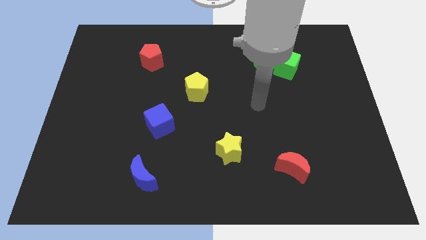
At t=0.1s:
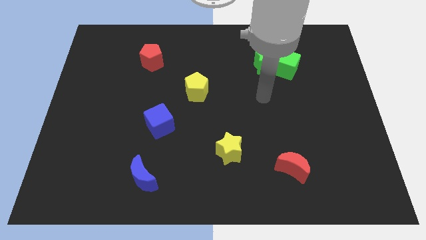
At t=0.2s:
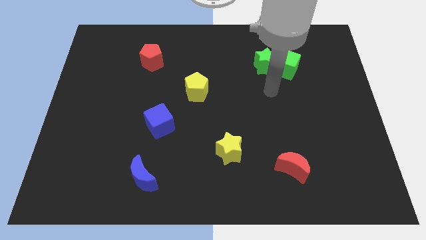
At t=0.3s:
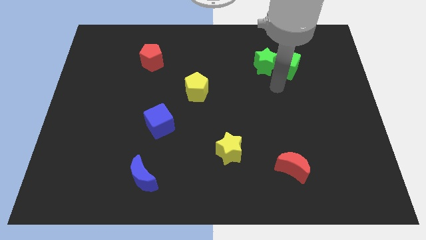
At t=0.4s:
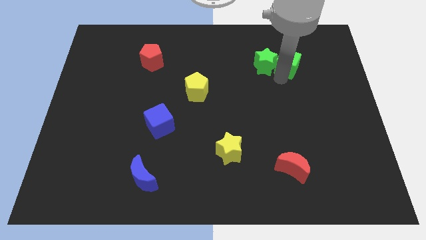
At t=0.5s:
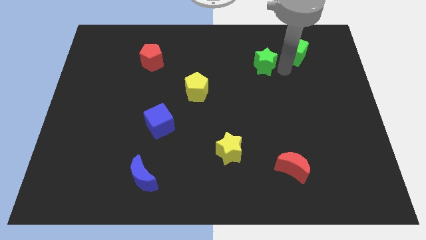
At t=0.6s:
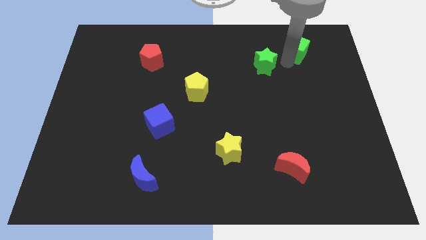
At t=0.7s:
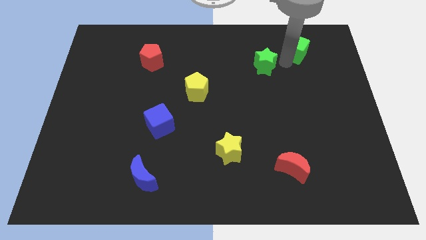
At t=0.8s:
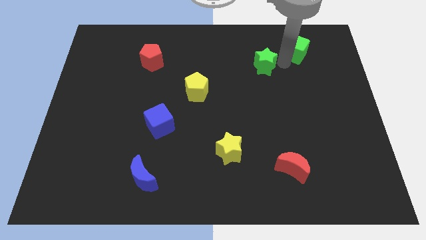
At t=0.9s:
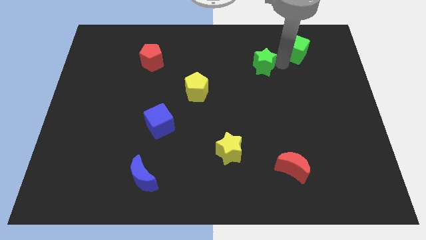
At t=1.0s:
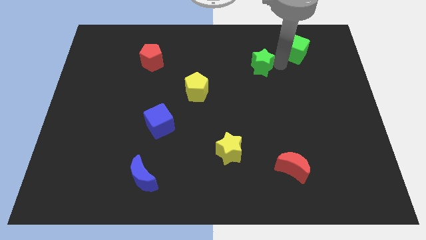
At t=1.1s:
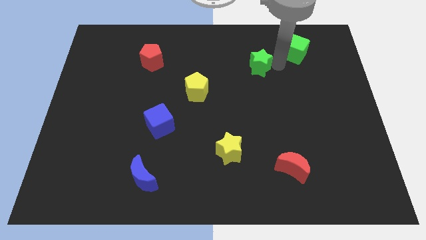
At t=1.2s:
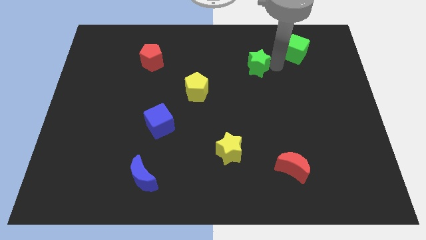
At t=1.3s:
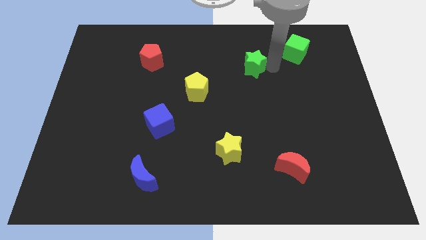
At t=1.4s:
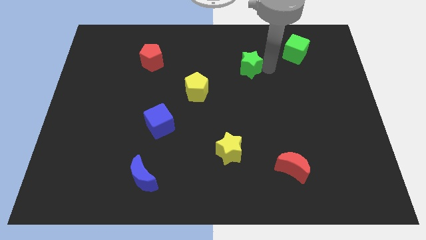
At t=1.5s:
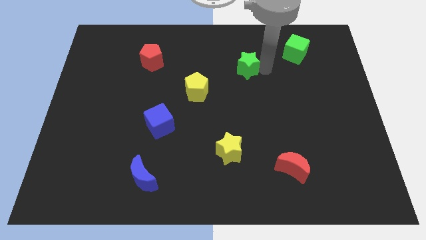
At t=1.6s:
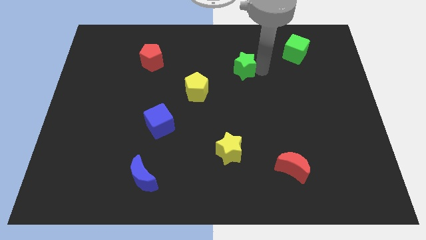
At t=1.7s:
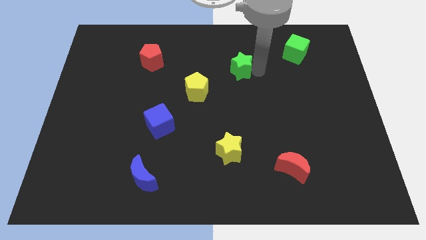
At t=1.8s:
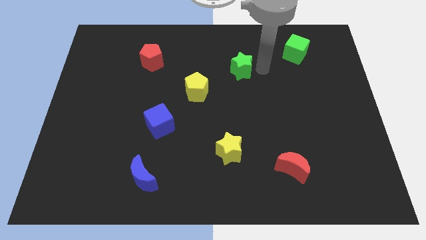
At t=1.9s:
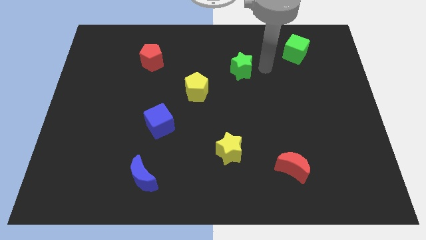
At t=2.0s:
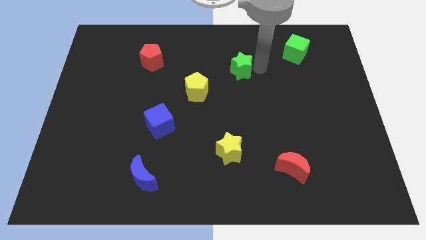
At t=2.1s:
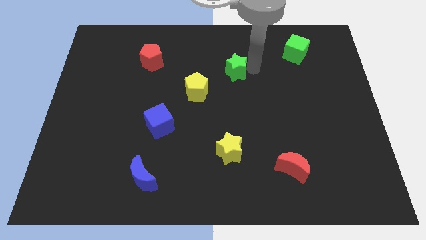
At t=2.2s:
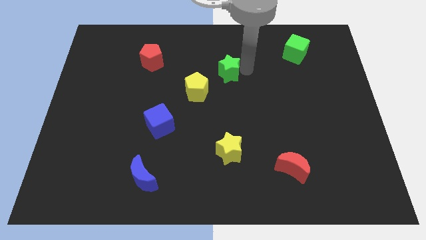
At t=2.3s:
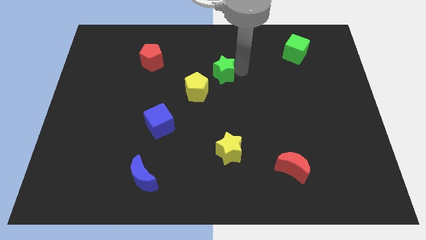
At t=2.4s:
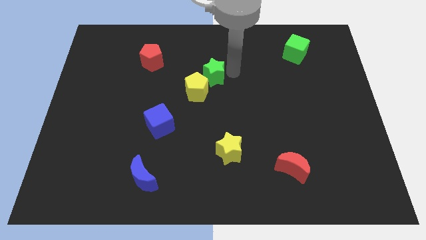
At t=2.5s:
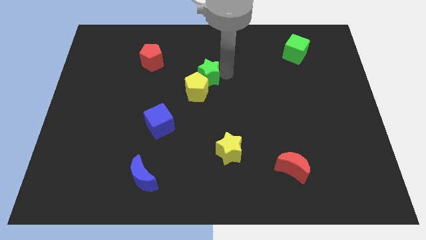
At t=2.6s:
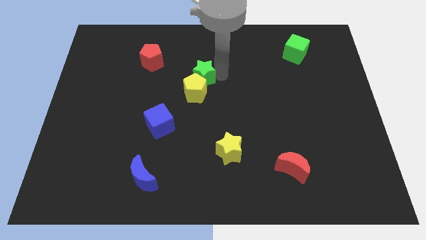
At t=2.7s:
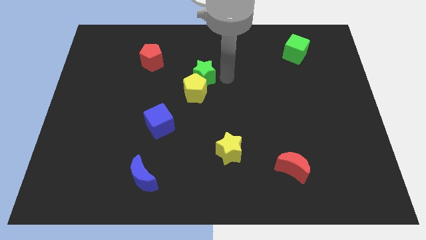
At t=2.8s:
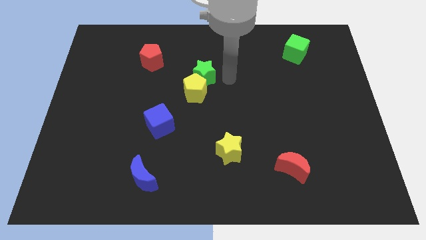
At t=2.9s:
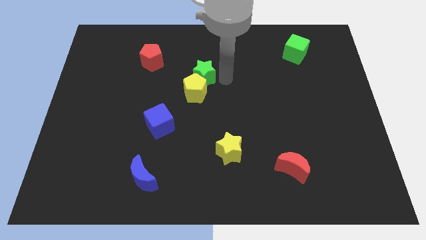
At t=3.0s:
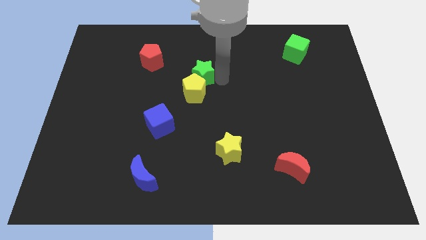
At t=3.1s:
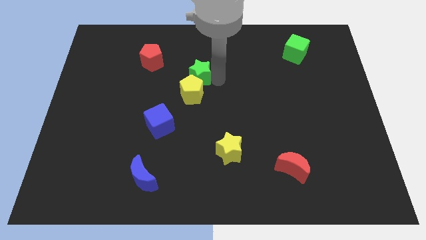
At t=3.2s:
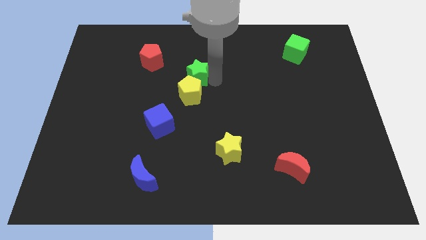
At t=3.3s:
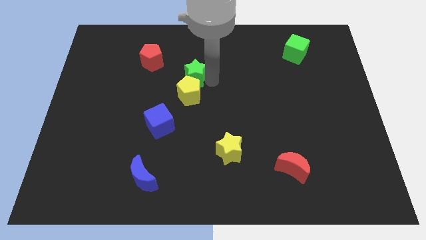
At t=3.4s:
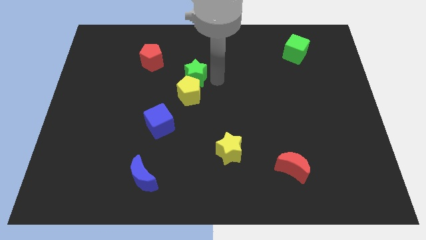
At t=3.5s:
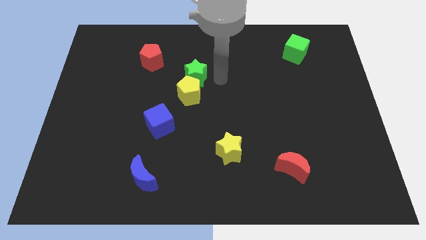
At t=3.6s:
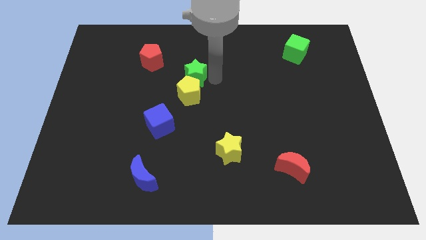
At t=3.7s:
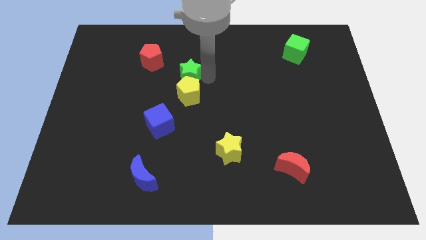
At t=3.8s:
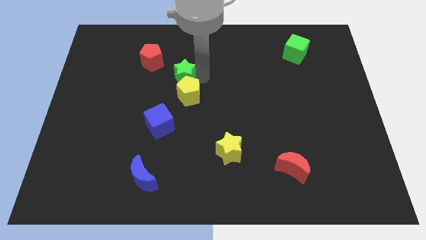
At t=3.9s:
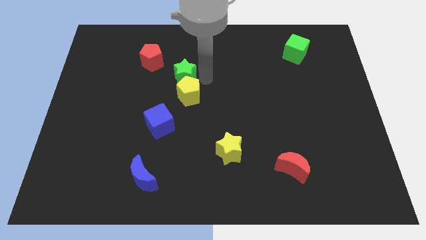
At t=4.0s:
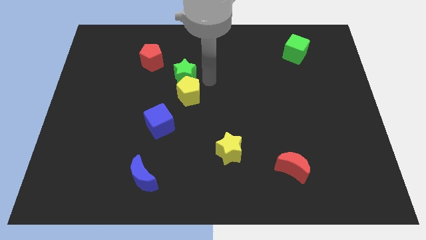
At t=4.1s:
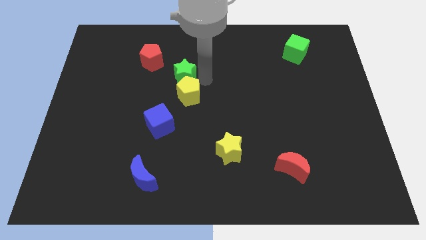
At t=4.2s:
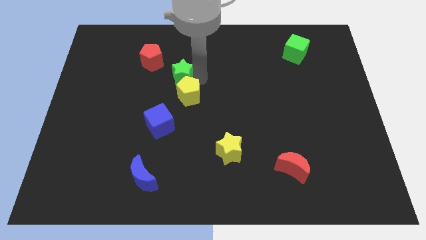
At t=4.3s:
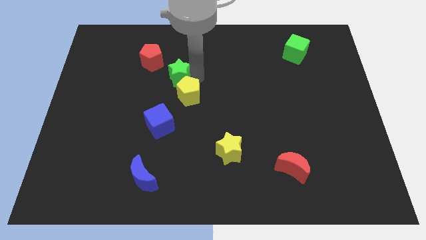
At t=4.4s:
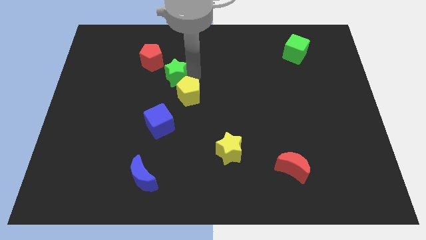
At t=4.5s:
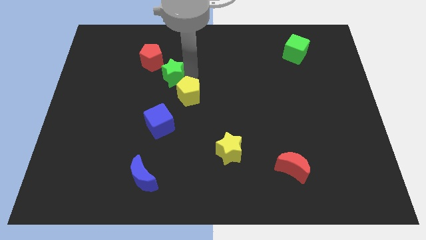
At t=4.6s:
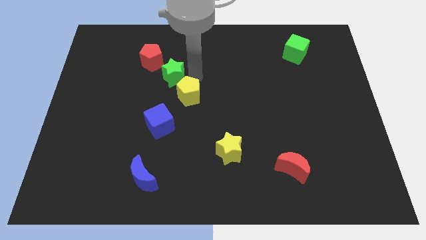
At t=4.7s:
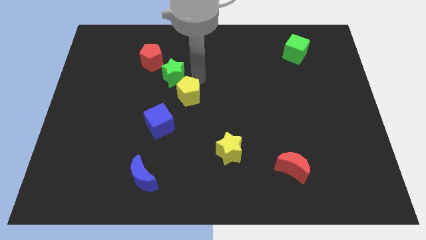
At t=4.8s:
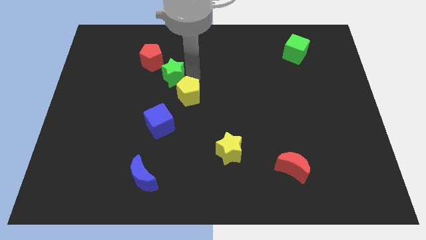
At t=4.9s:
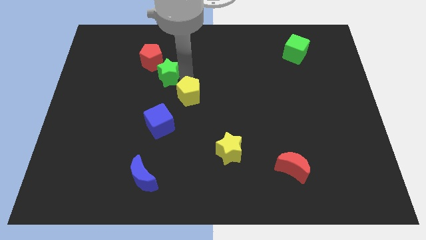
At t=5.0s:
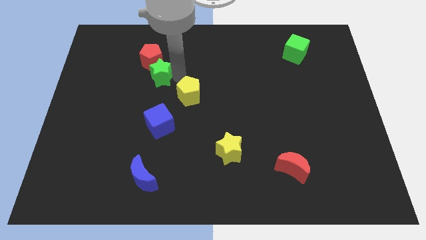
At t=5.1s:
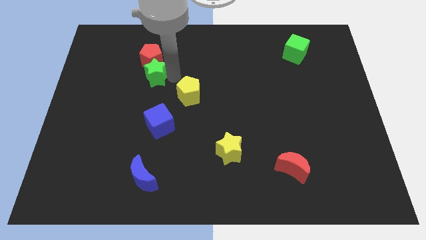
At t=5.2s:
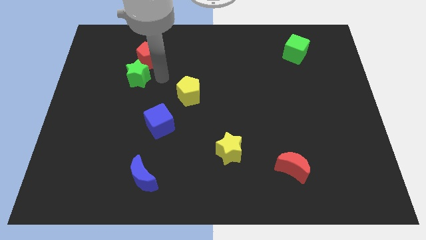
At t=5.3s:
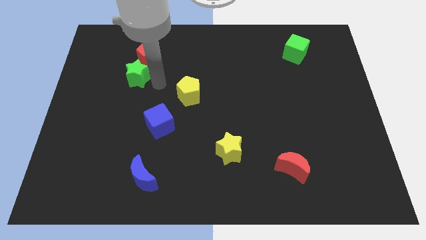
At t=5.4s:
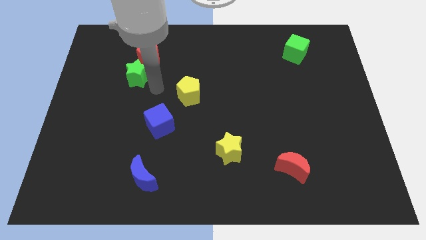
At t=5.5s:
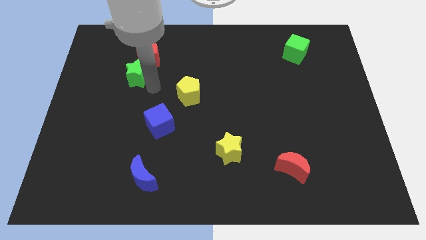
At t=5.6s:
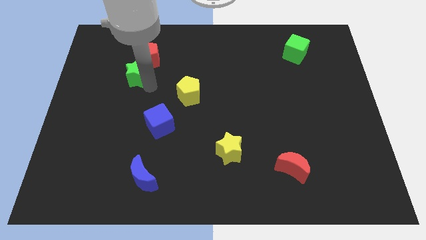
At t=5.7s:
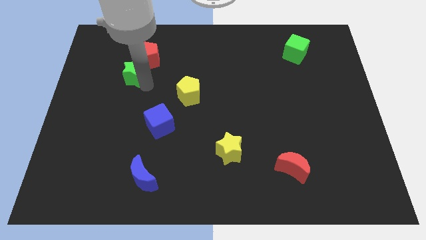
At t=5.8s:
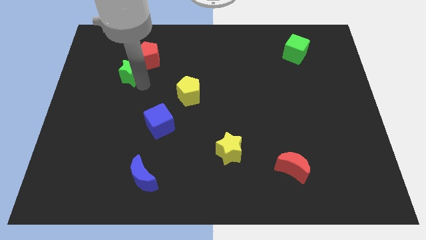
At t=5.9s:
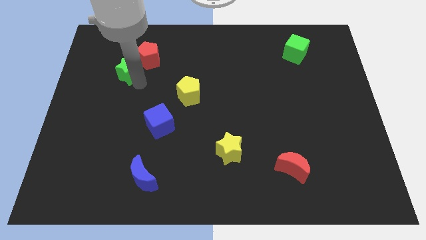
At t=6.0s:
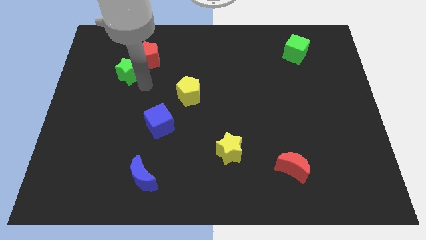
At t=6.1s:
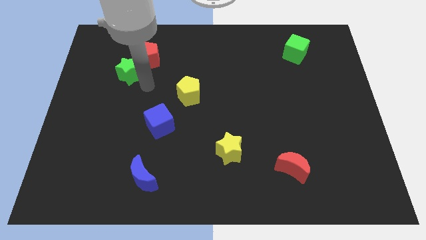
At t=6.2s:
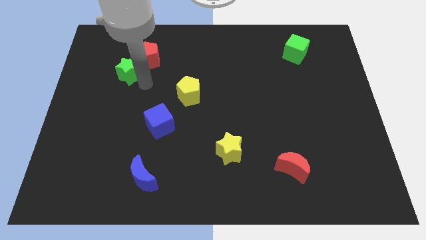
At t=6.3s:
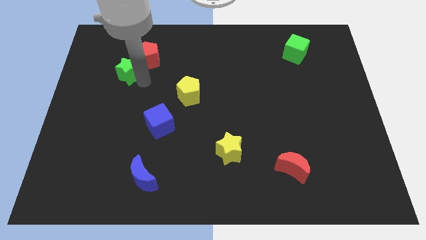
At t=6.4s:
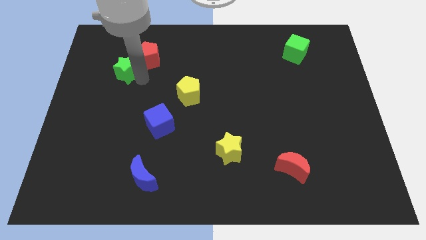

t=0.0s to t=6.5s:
slide the green star just left of the red pentagon

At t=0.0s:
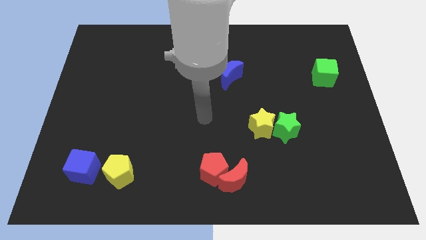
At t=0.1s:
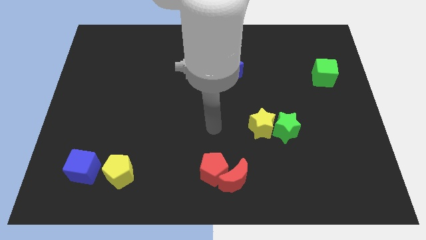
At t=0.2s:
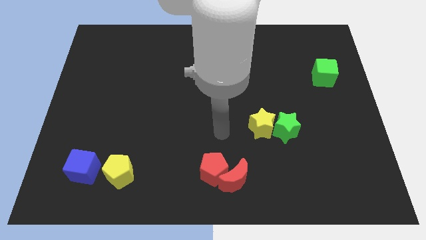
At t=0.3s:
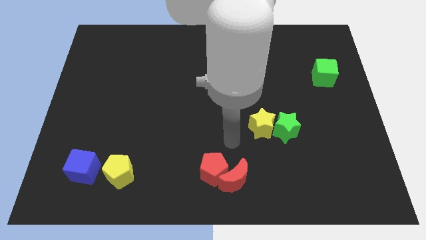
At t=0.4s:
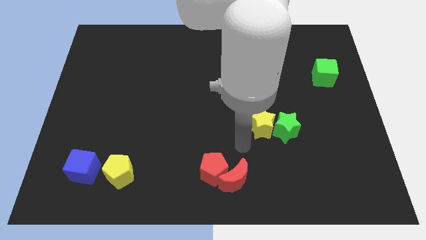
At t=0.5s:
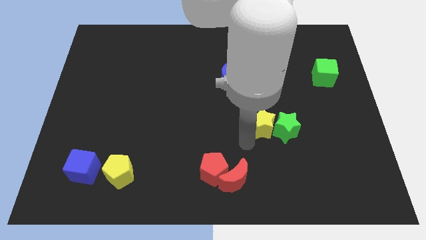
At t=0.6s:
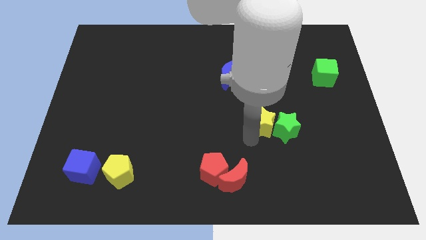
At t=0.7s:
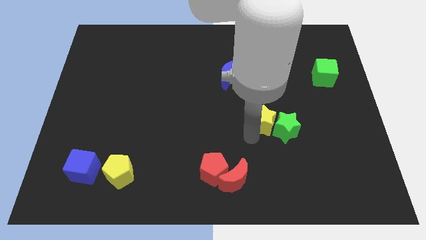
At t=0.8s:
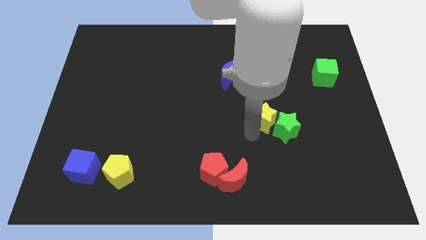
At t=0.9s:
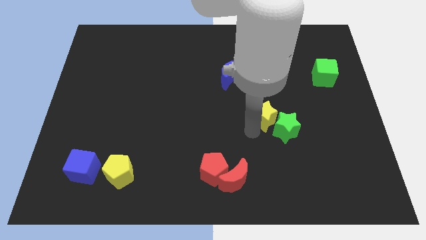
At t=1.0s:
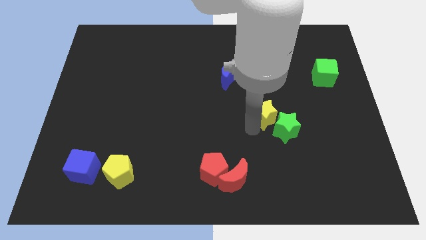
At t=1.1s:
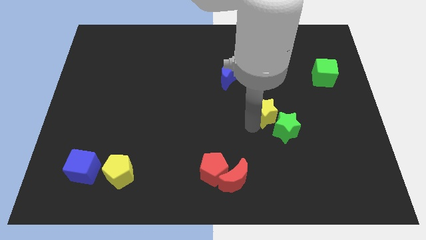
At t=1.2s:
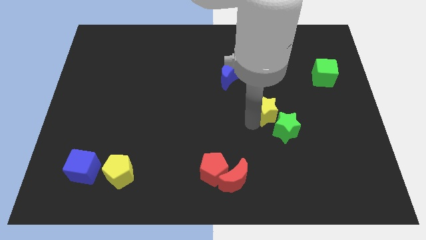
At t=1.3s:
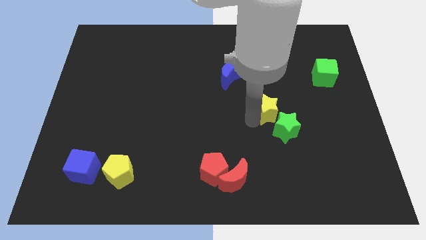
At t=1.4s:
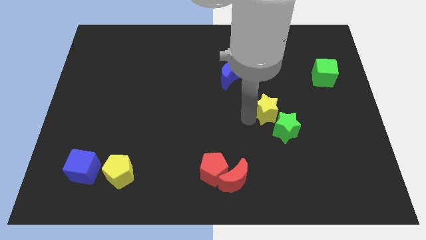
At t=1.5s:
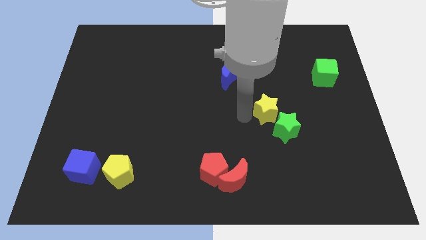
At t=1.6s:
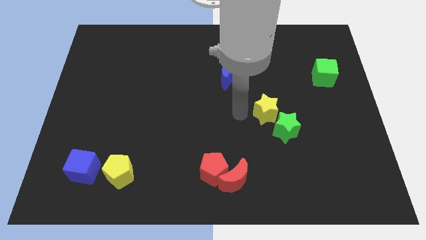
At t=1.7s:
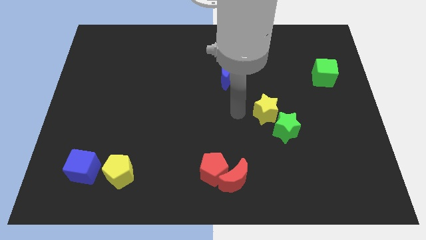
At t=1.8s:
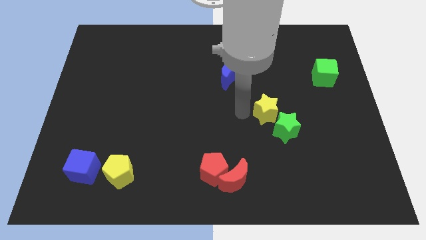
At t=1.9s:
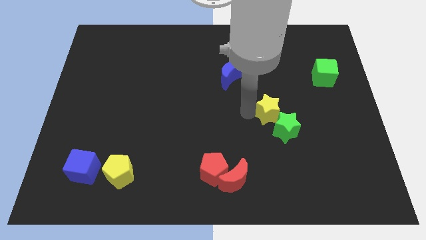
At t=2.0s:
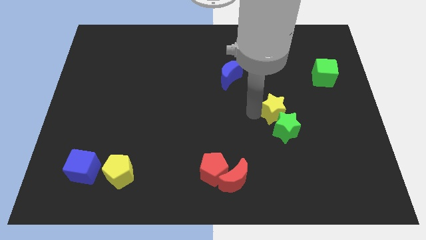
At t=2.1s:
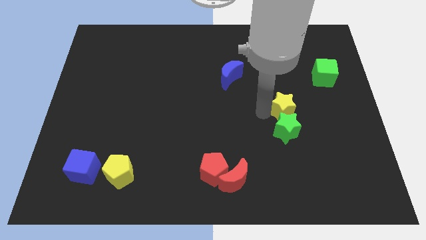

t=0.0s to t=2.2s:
move the yellow star diagonally up and to the right of the green star
